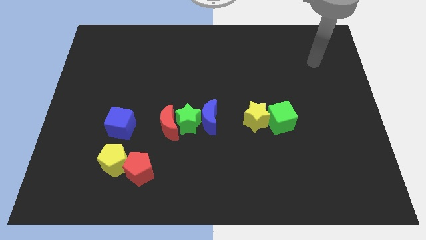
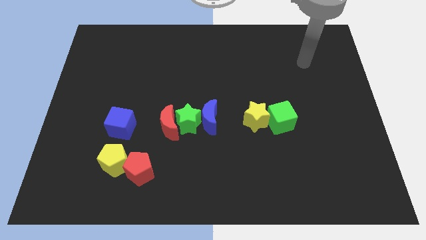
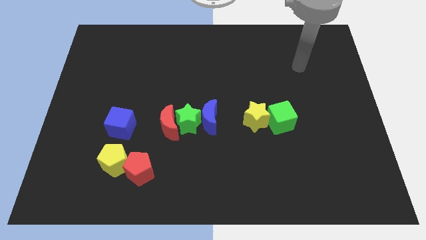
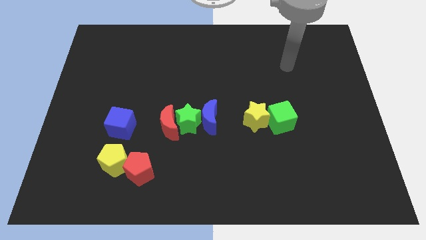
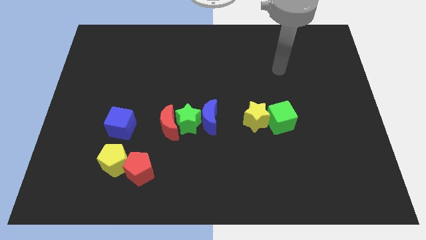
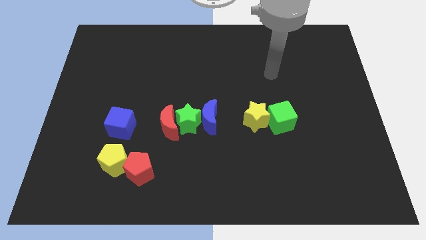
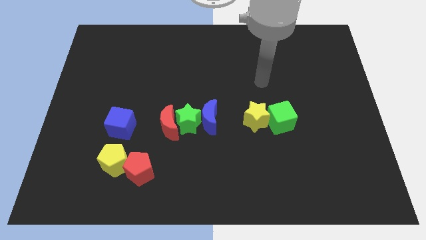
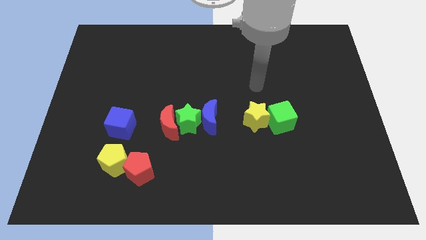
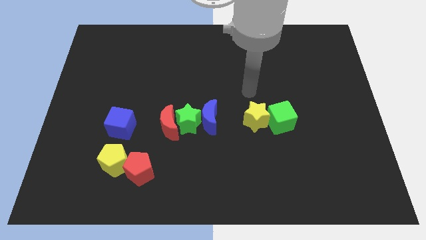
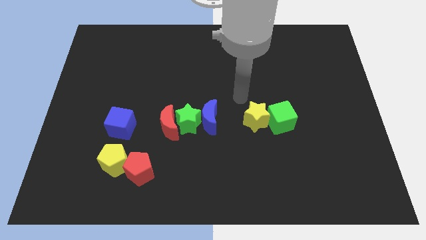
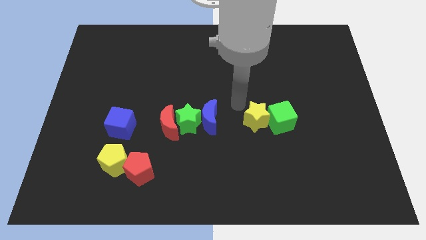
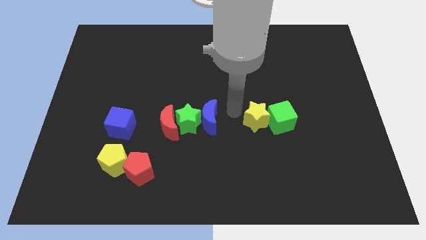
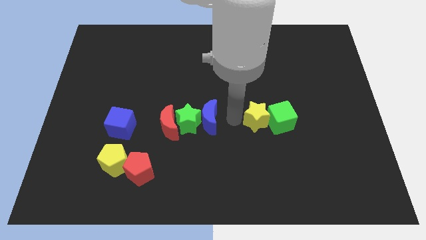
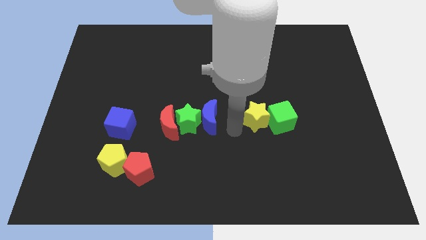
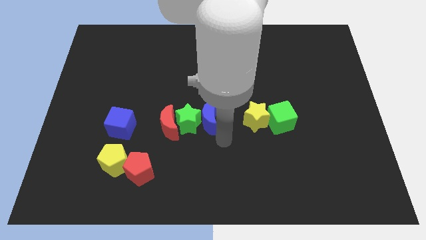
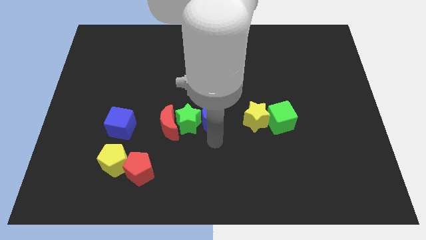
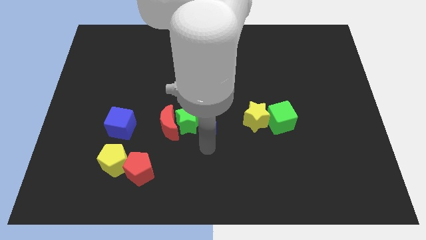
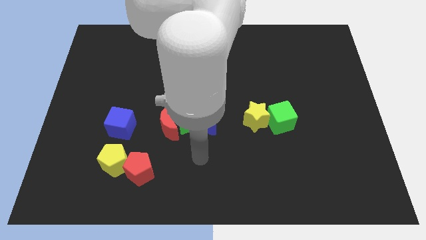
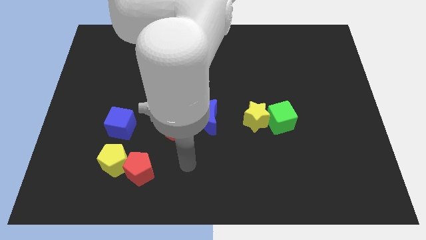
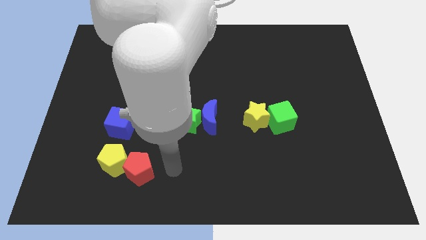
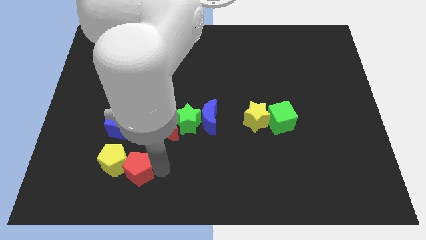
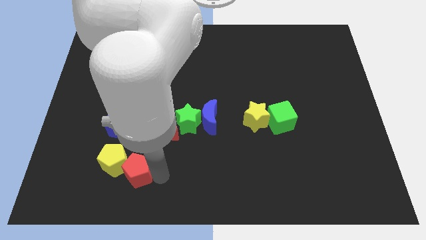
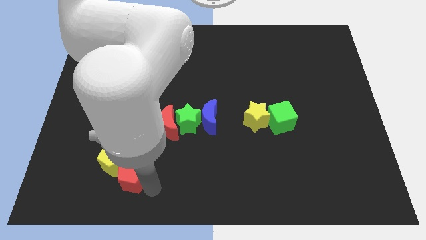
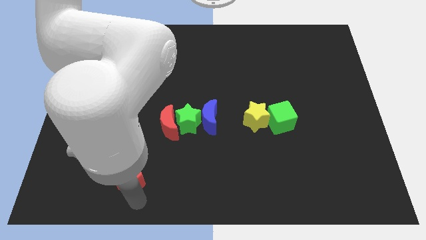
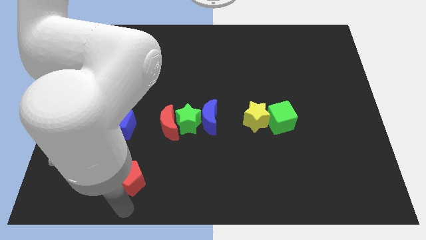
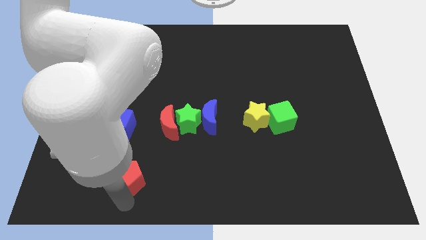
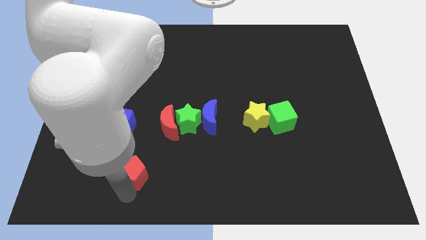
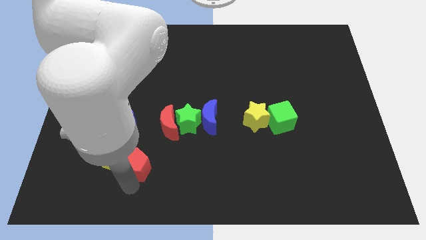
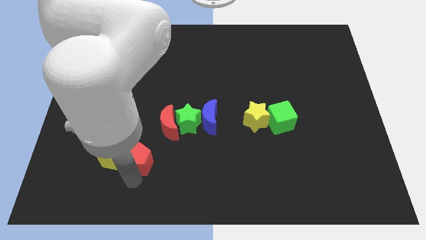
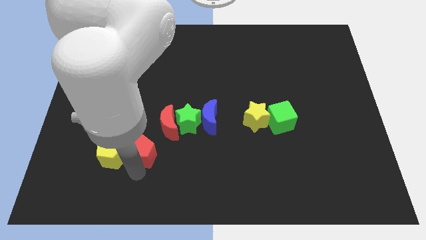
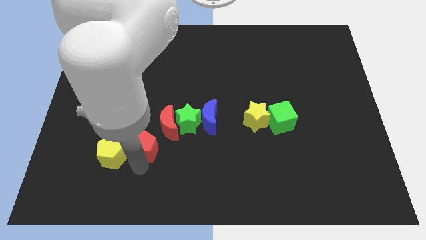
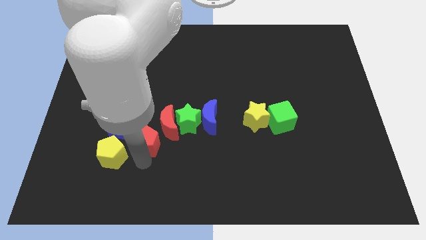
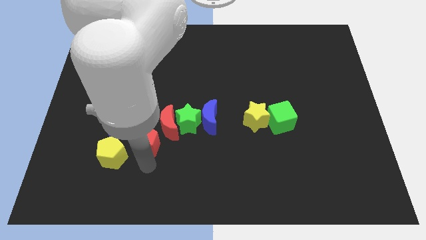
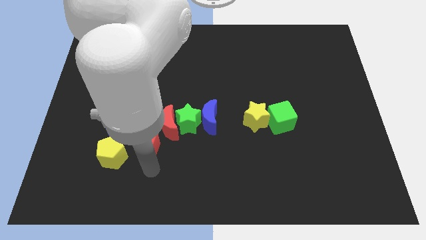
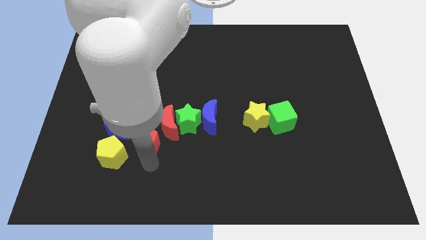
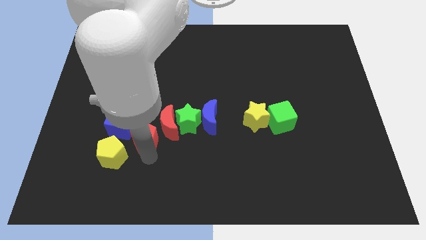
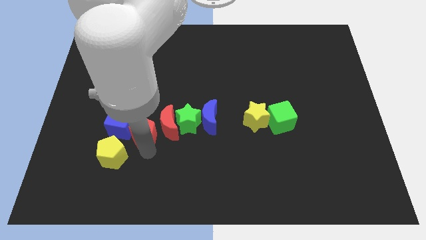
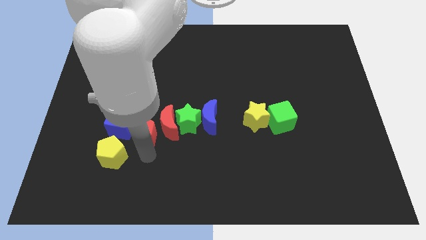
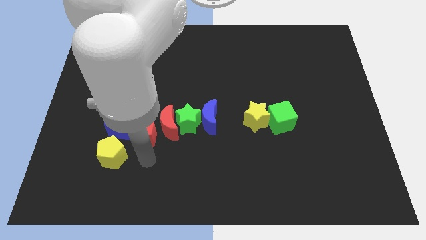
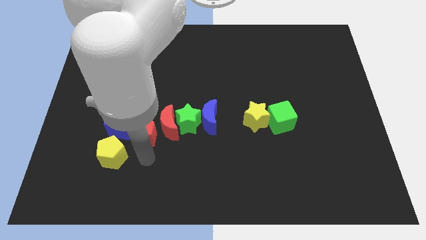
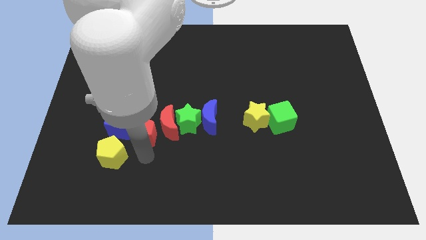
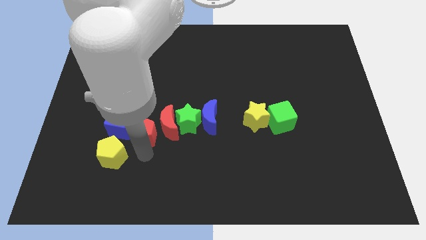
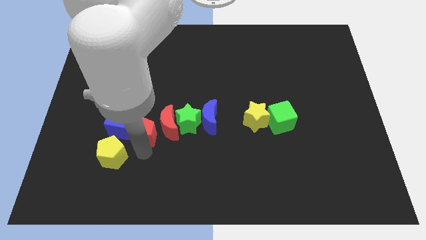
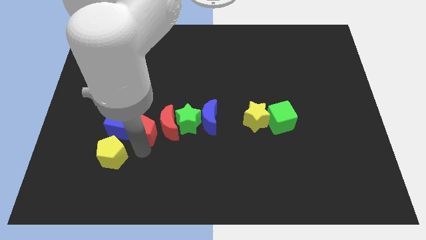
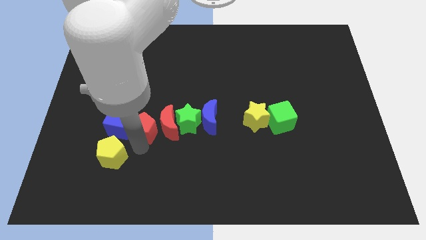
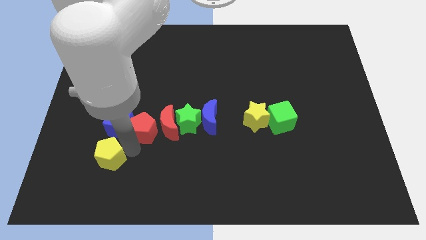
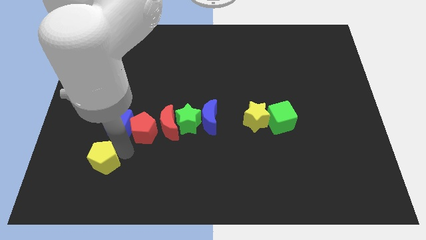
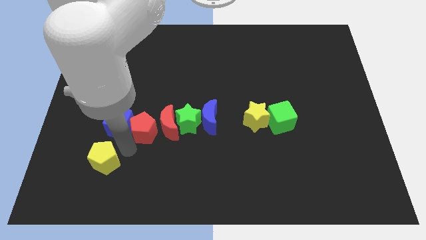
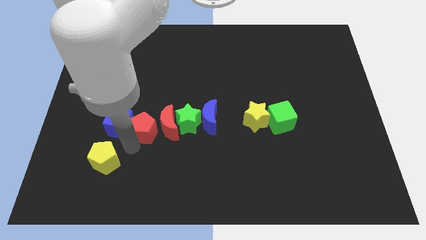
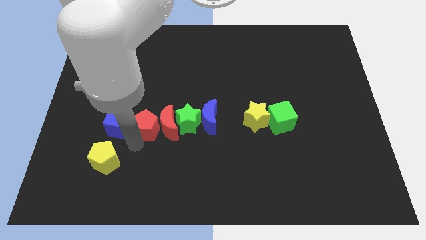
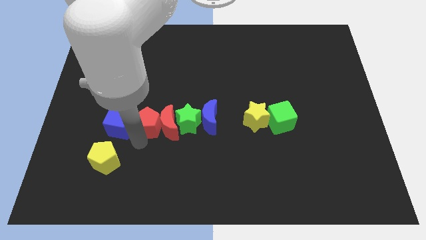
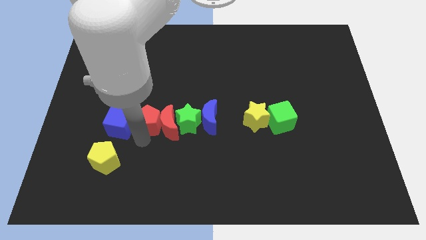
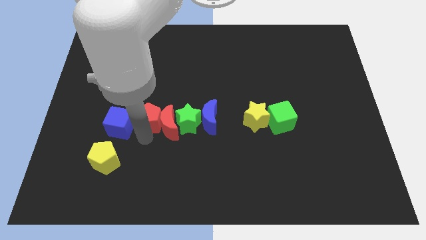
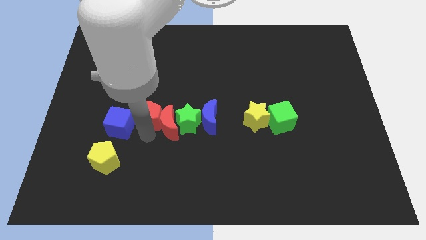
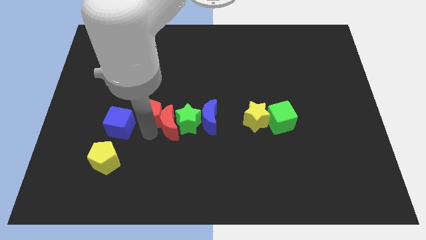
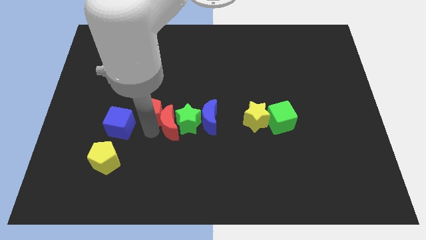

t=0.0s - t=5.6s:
push the red pentagon diagonally up and to the left of the green star
